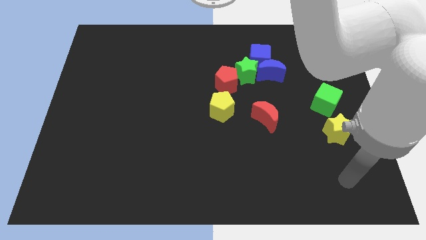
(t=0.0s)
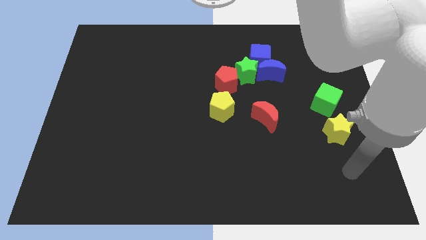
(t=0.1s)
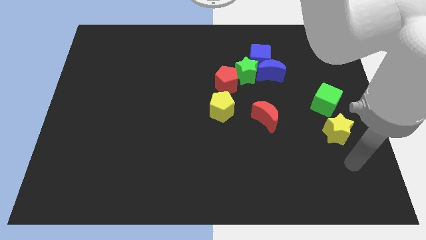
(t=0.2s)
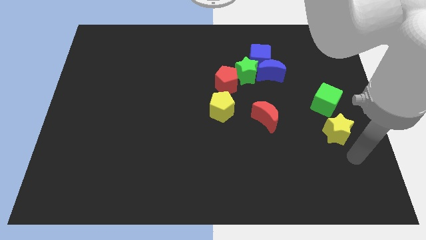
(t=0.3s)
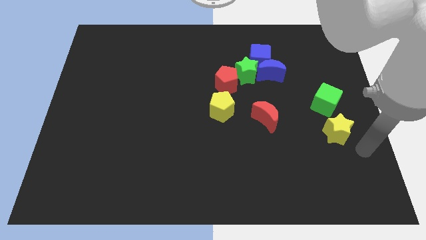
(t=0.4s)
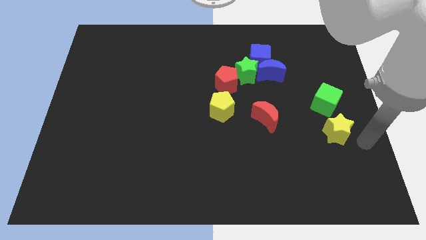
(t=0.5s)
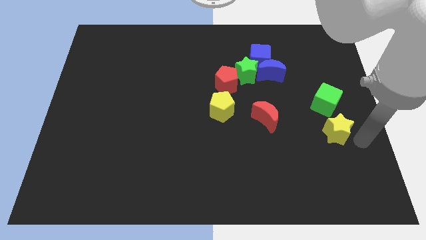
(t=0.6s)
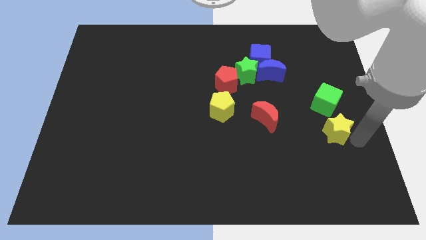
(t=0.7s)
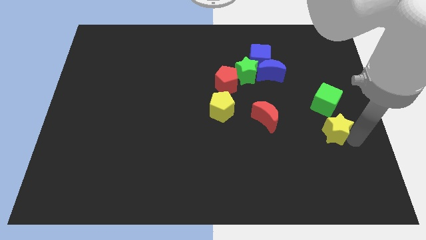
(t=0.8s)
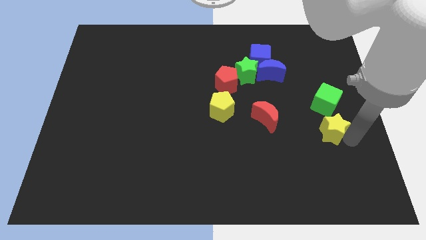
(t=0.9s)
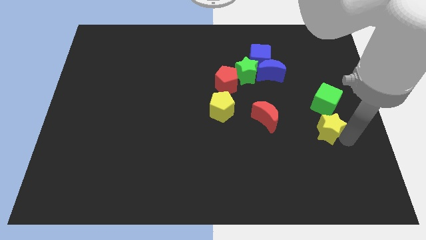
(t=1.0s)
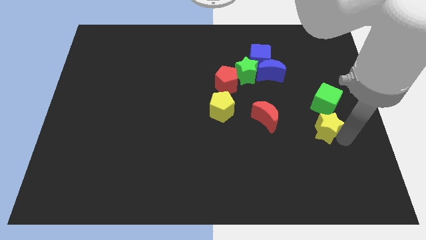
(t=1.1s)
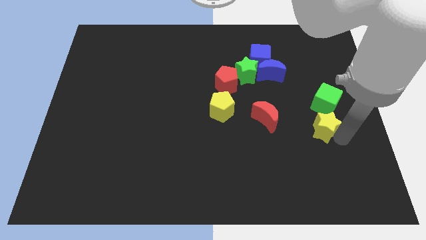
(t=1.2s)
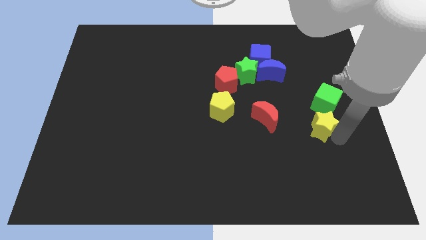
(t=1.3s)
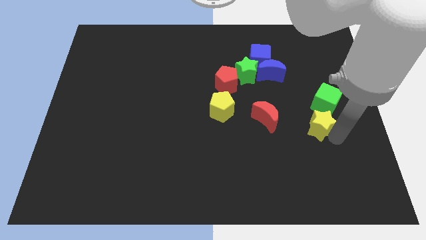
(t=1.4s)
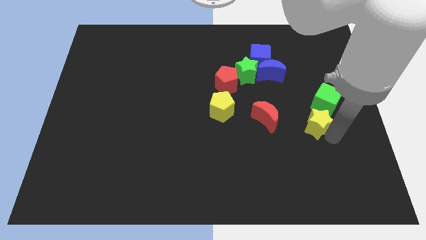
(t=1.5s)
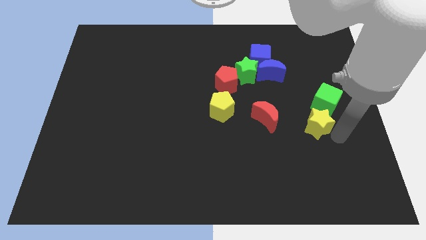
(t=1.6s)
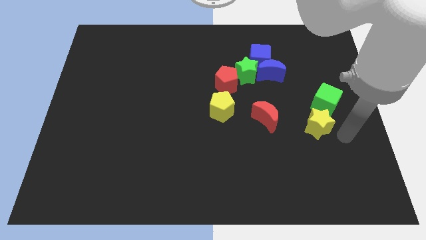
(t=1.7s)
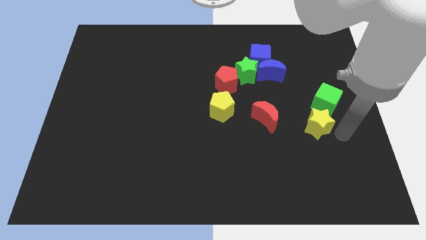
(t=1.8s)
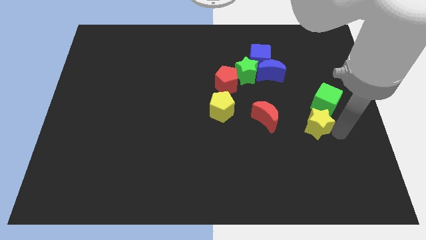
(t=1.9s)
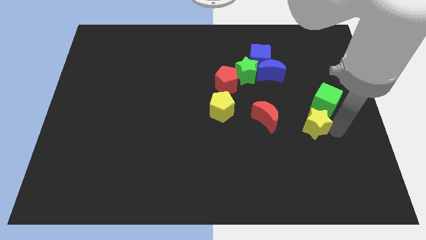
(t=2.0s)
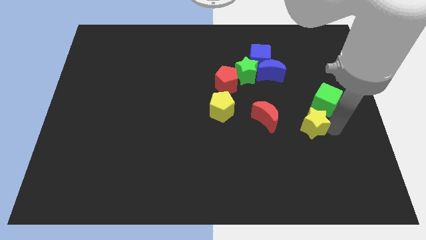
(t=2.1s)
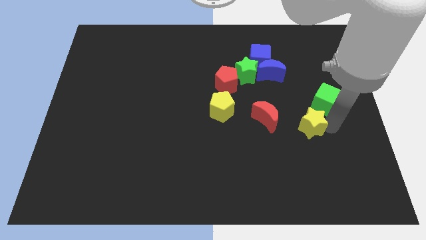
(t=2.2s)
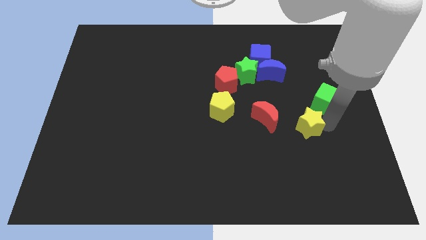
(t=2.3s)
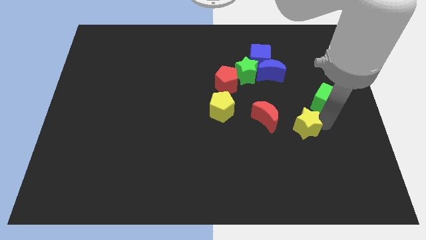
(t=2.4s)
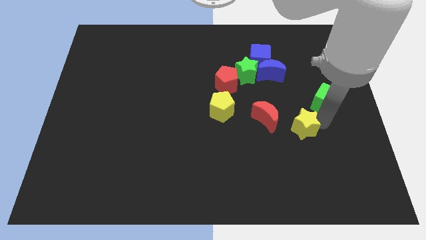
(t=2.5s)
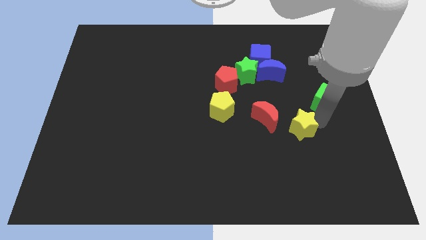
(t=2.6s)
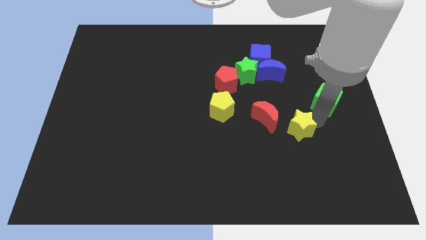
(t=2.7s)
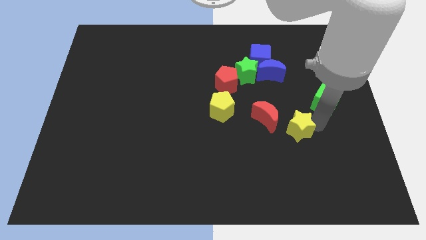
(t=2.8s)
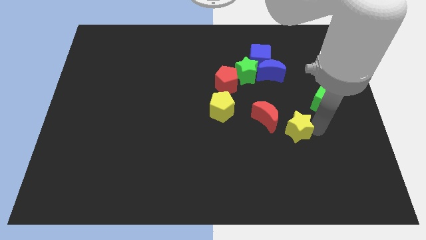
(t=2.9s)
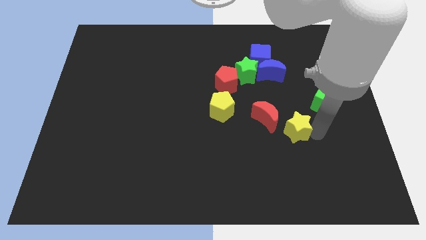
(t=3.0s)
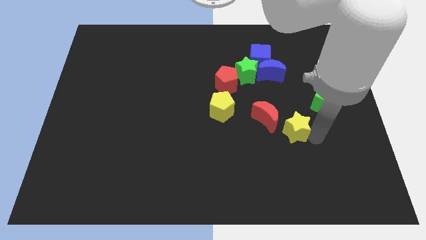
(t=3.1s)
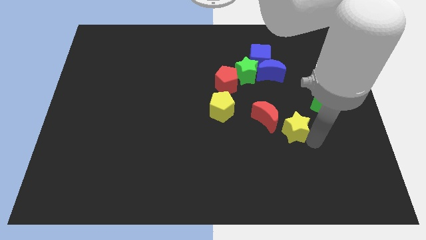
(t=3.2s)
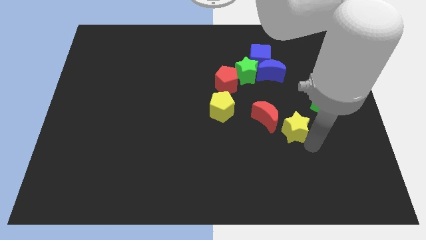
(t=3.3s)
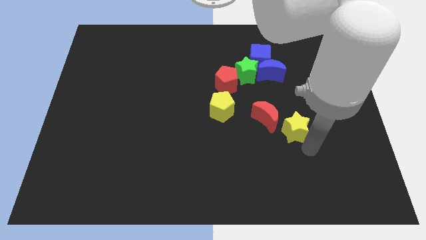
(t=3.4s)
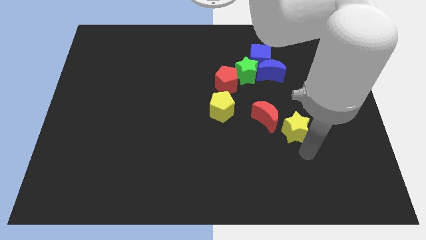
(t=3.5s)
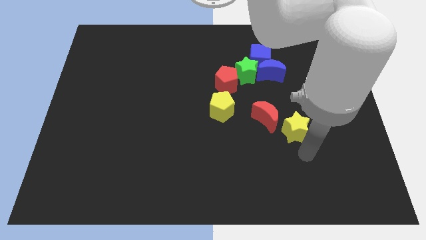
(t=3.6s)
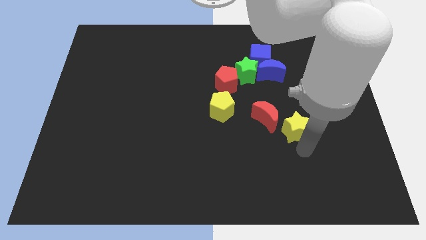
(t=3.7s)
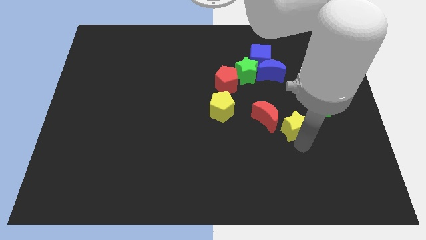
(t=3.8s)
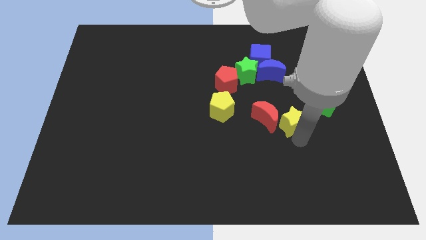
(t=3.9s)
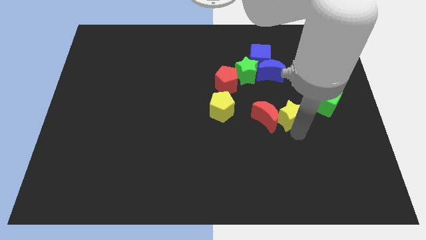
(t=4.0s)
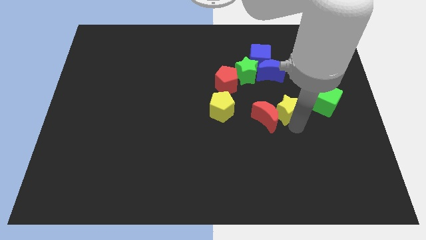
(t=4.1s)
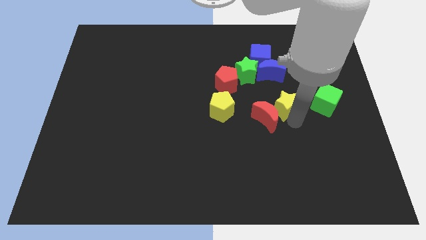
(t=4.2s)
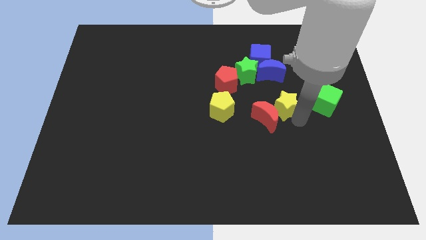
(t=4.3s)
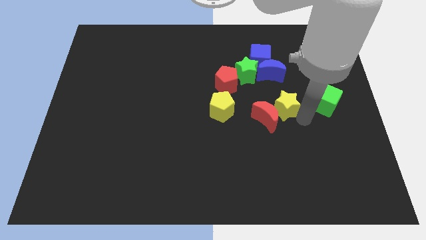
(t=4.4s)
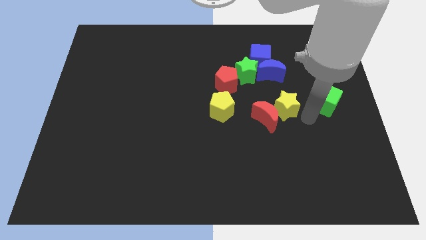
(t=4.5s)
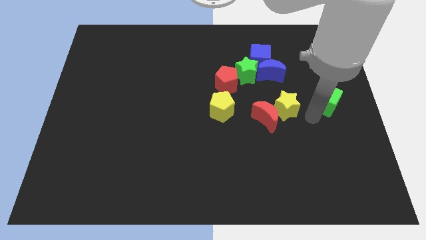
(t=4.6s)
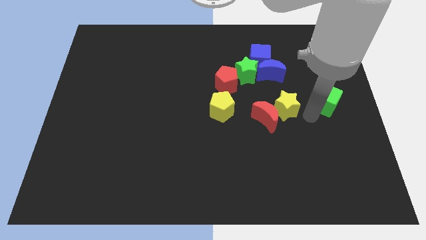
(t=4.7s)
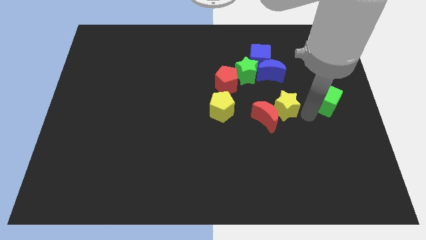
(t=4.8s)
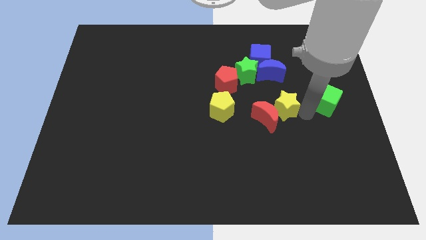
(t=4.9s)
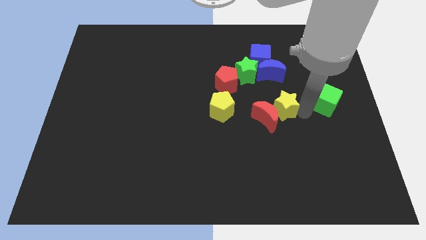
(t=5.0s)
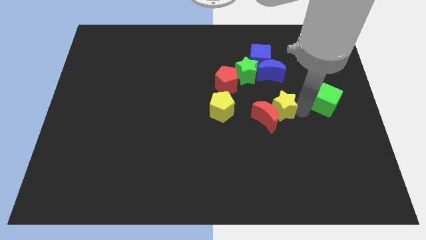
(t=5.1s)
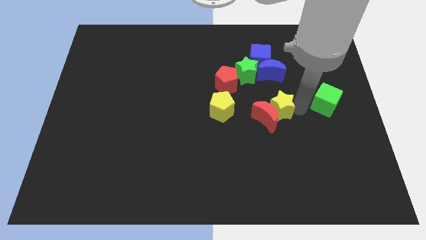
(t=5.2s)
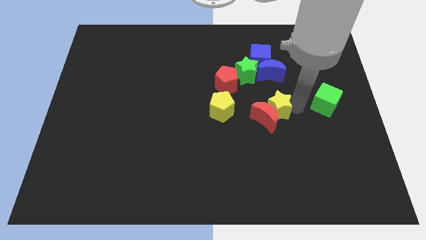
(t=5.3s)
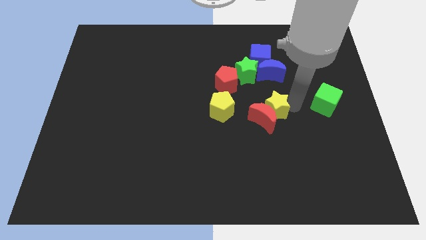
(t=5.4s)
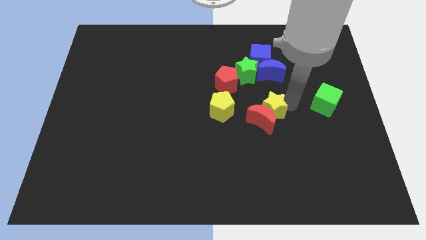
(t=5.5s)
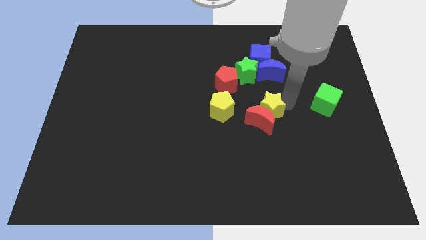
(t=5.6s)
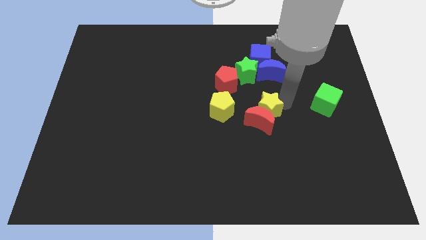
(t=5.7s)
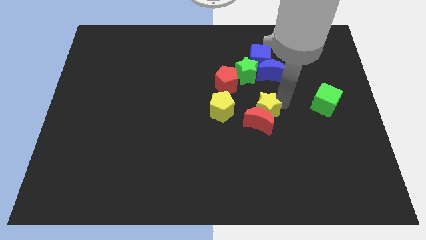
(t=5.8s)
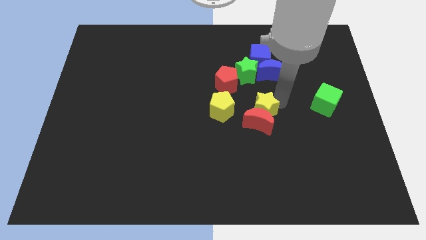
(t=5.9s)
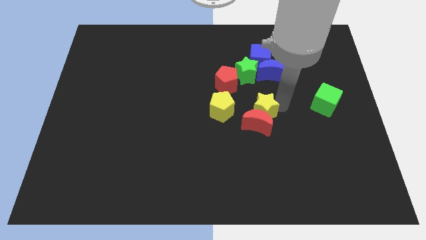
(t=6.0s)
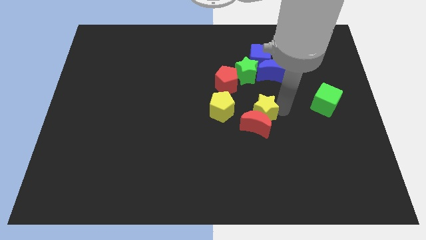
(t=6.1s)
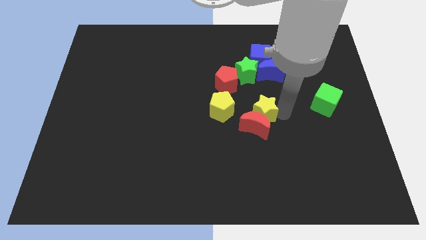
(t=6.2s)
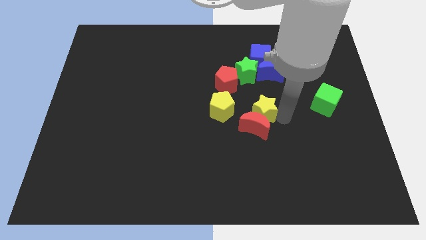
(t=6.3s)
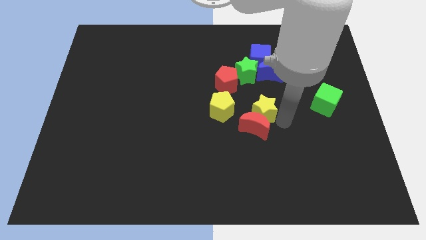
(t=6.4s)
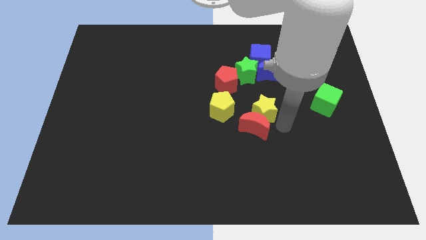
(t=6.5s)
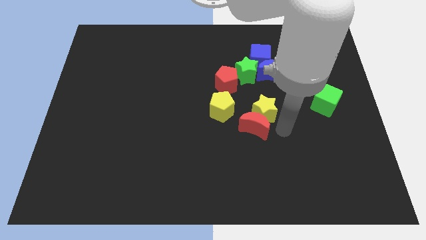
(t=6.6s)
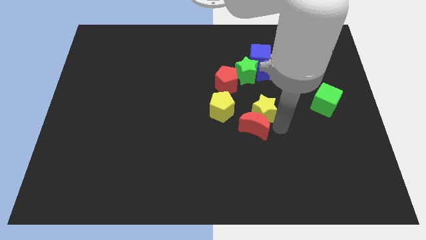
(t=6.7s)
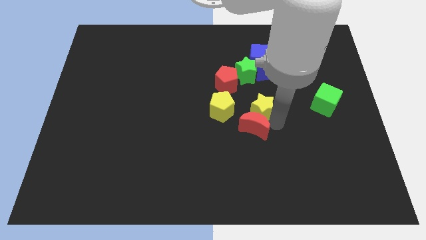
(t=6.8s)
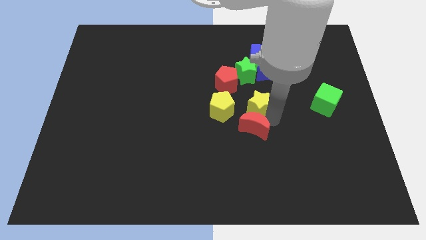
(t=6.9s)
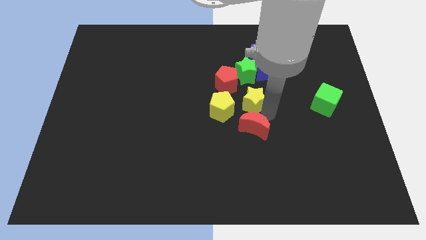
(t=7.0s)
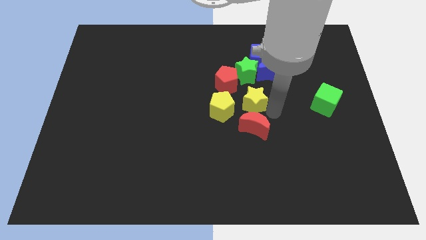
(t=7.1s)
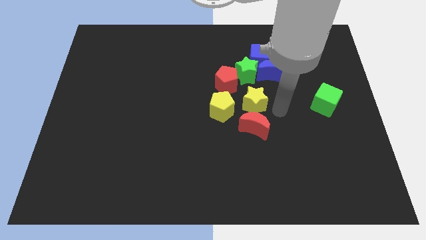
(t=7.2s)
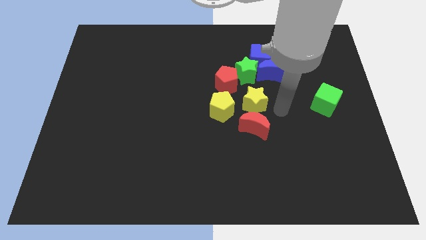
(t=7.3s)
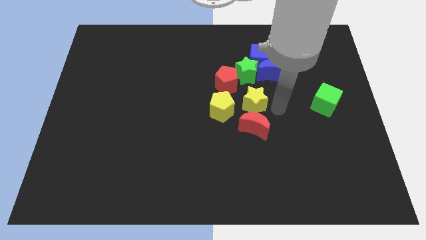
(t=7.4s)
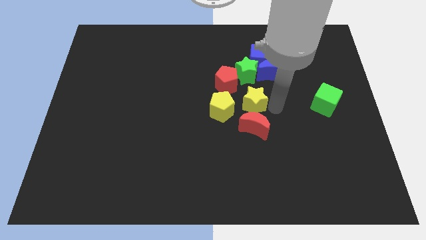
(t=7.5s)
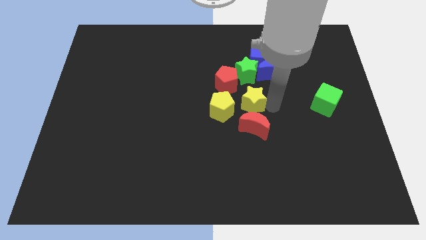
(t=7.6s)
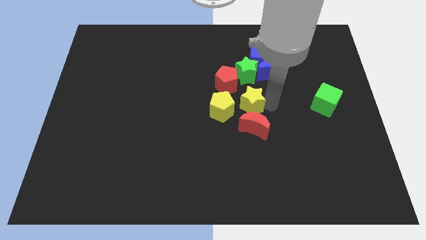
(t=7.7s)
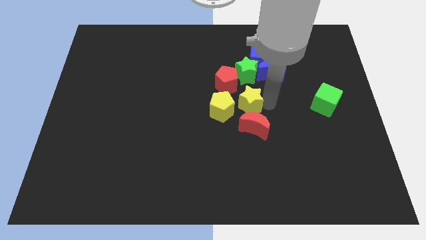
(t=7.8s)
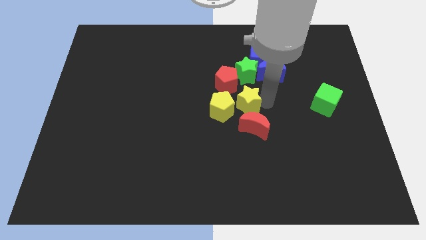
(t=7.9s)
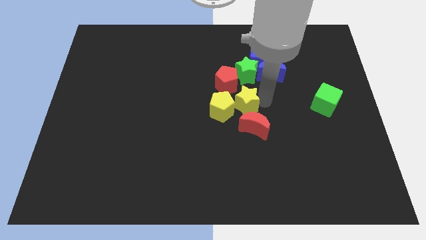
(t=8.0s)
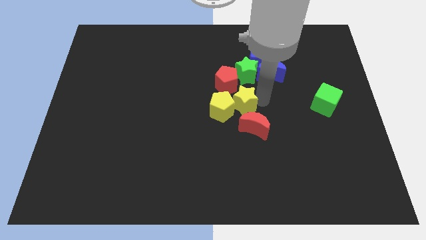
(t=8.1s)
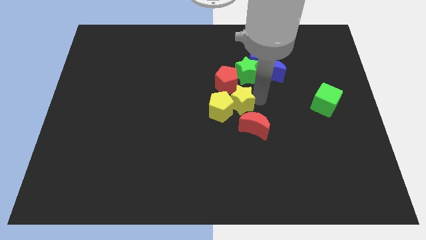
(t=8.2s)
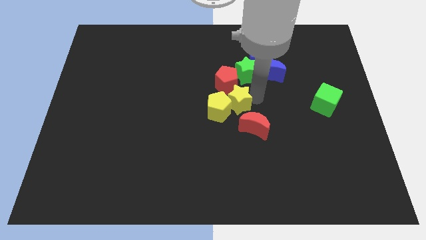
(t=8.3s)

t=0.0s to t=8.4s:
move the yellow star to the bottom left of the green star
